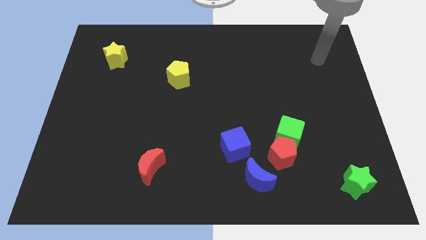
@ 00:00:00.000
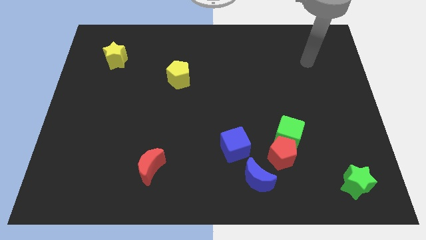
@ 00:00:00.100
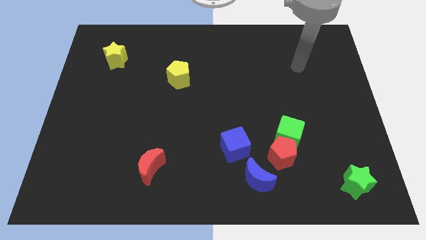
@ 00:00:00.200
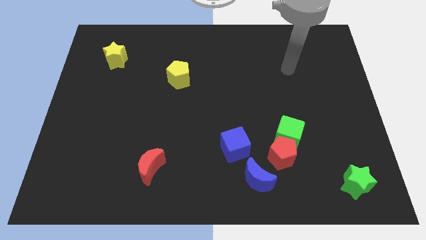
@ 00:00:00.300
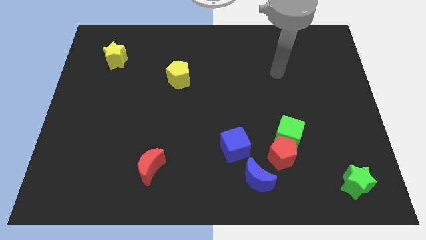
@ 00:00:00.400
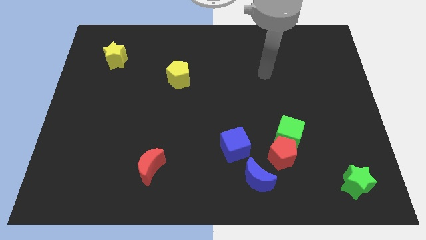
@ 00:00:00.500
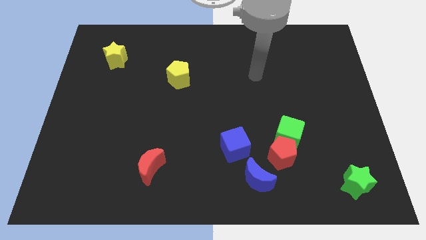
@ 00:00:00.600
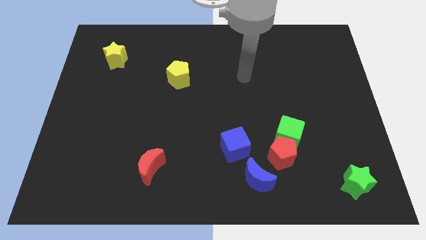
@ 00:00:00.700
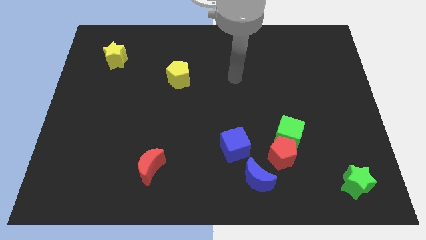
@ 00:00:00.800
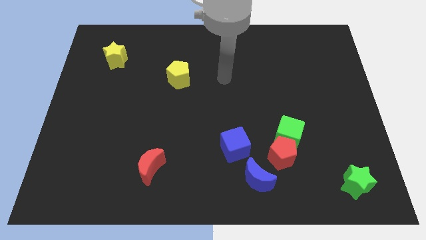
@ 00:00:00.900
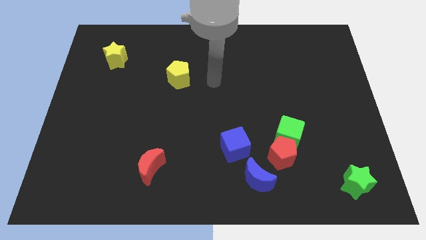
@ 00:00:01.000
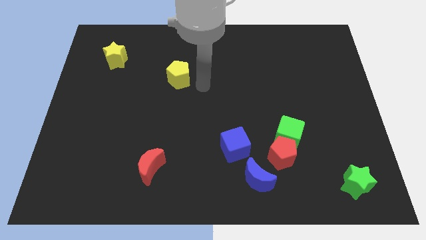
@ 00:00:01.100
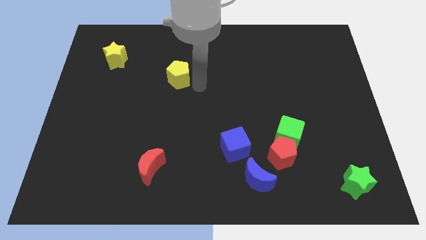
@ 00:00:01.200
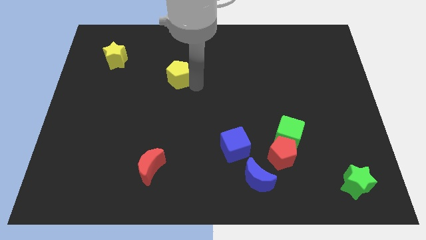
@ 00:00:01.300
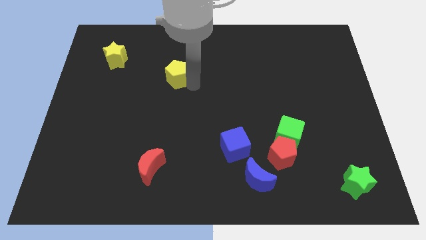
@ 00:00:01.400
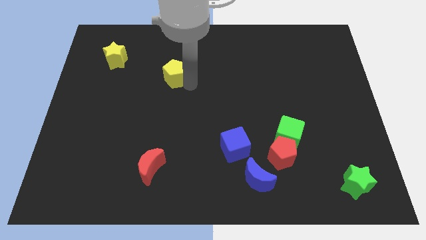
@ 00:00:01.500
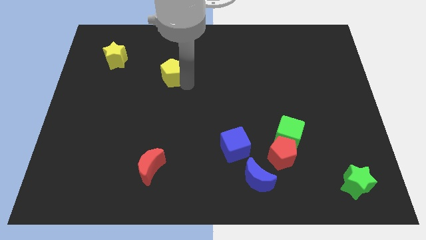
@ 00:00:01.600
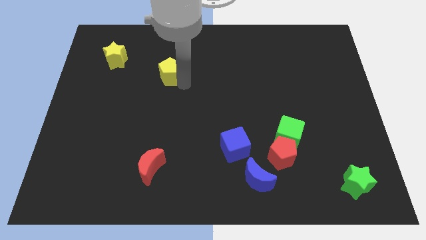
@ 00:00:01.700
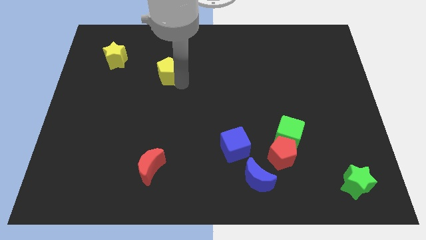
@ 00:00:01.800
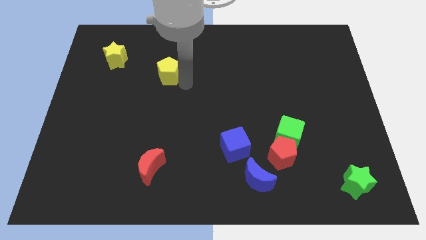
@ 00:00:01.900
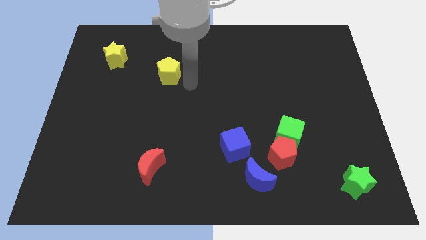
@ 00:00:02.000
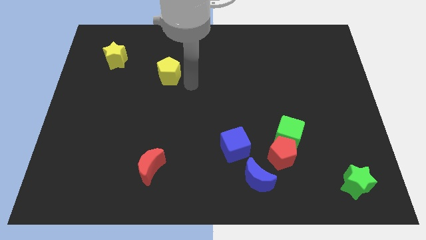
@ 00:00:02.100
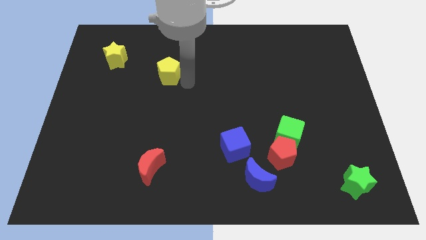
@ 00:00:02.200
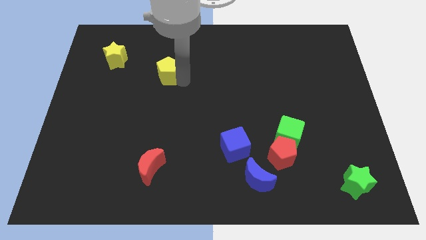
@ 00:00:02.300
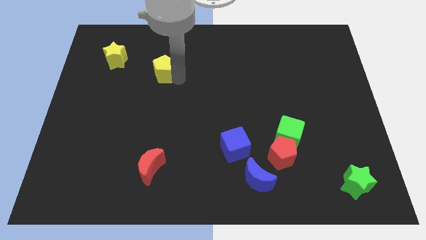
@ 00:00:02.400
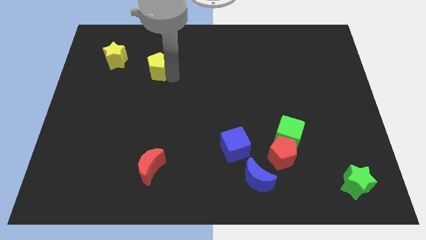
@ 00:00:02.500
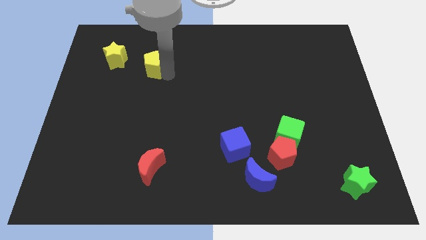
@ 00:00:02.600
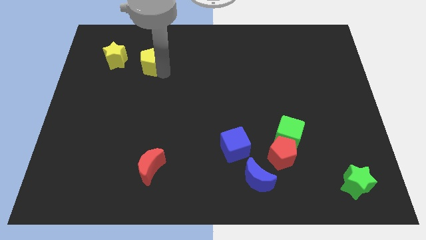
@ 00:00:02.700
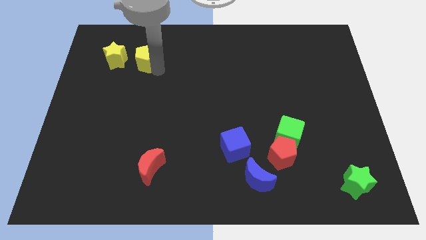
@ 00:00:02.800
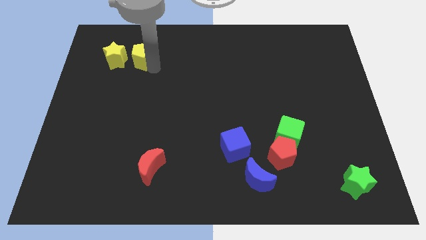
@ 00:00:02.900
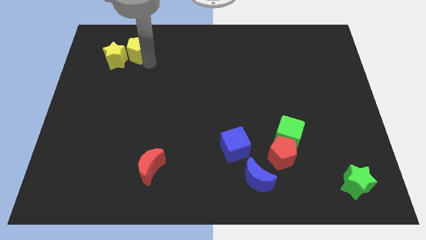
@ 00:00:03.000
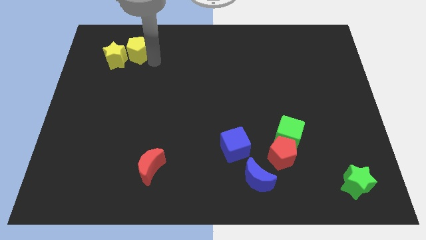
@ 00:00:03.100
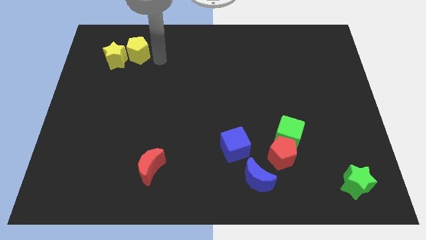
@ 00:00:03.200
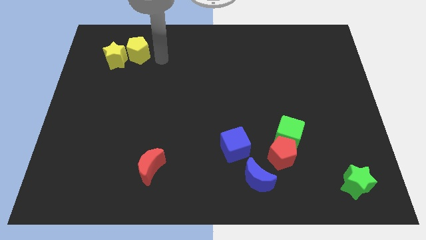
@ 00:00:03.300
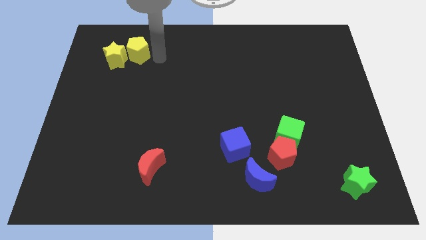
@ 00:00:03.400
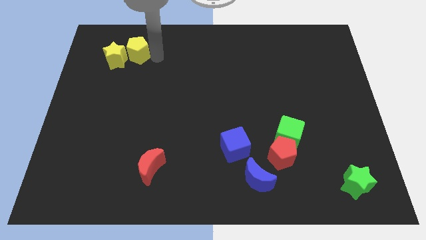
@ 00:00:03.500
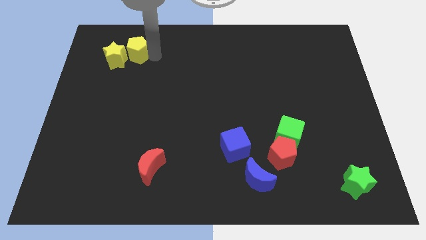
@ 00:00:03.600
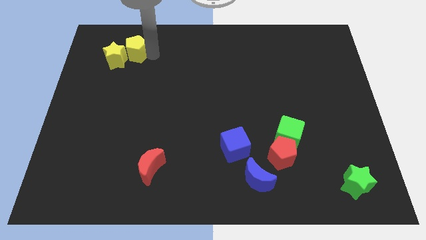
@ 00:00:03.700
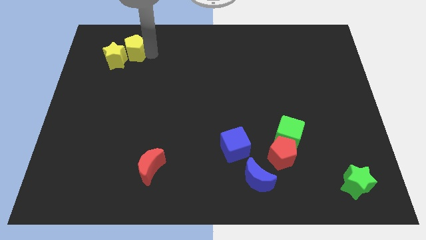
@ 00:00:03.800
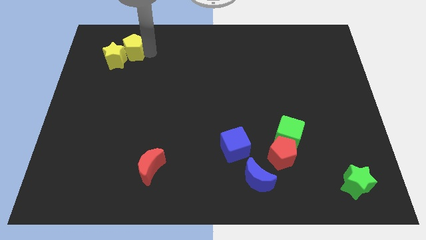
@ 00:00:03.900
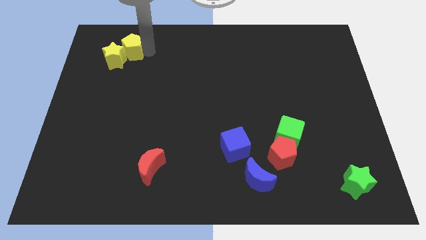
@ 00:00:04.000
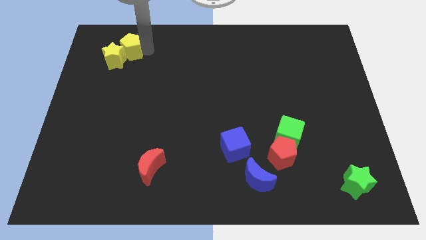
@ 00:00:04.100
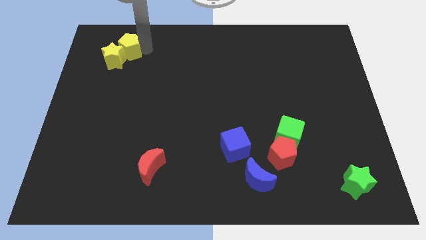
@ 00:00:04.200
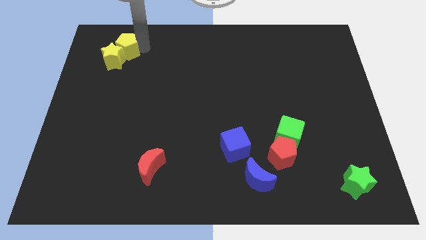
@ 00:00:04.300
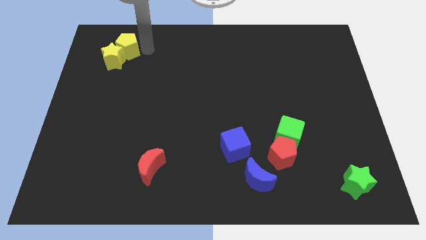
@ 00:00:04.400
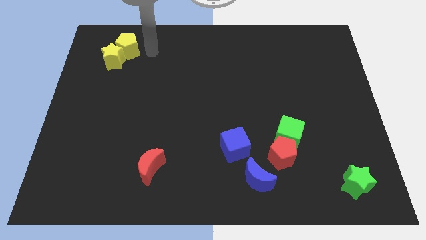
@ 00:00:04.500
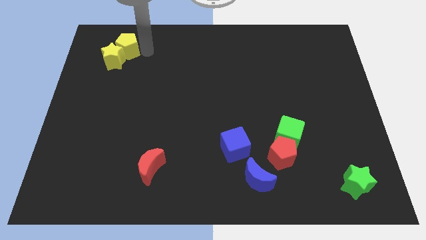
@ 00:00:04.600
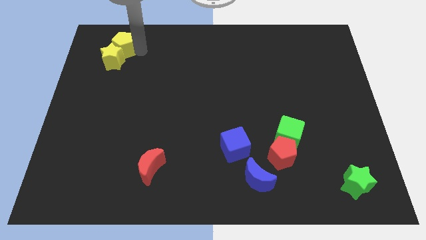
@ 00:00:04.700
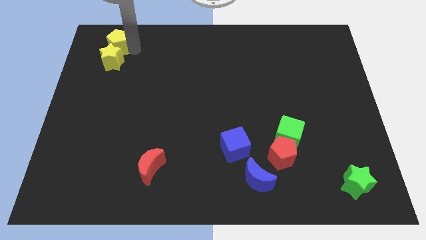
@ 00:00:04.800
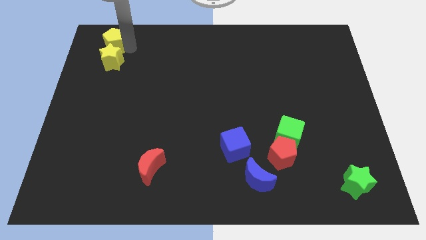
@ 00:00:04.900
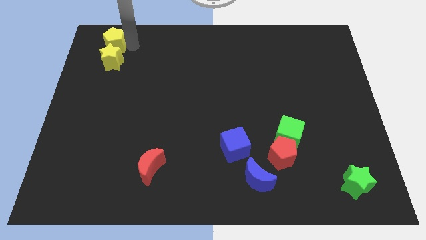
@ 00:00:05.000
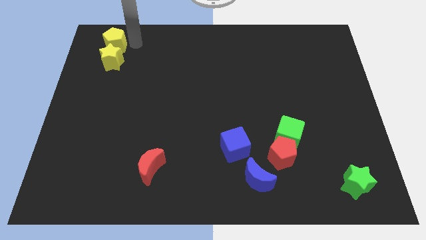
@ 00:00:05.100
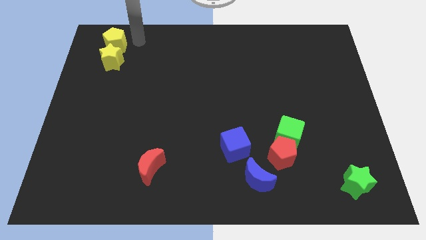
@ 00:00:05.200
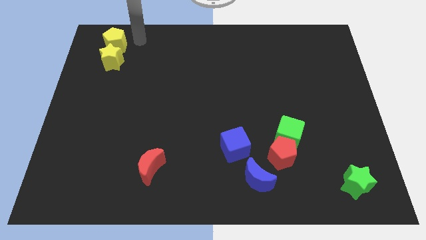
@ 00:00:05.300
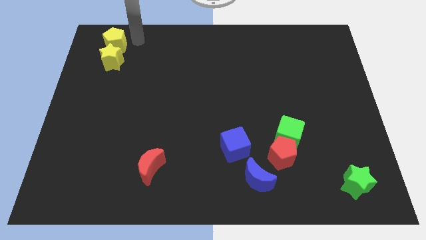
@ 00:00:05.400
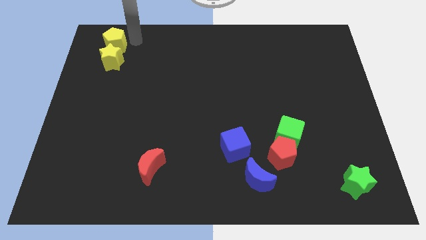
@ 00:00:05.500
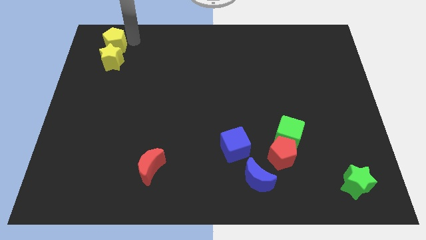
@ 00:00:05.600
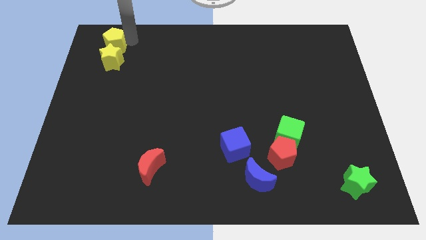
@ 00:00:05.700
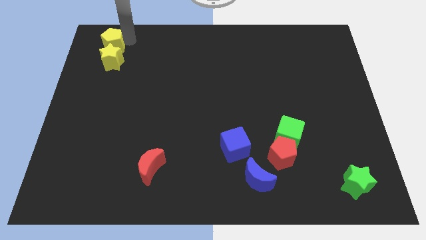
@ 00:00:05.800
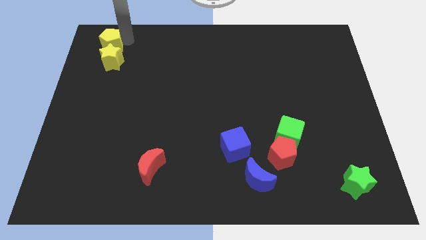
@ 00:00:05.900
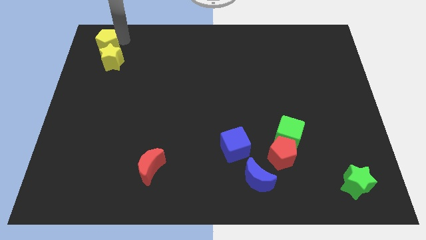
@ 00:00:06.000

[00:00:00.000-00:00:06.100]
slide the yellow pentagon to the upper left corner
